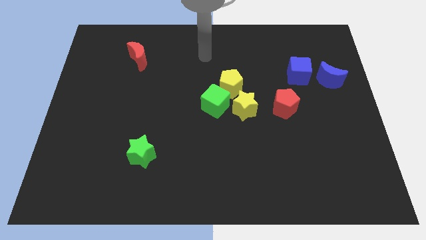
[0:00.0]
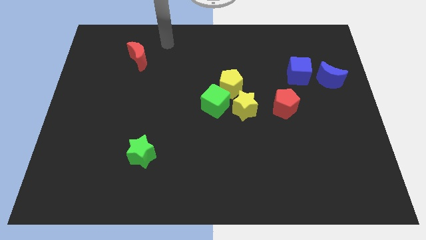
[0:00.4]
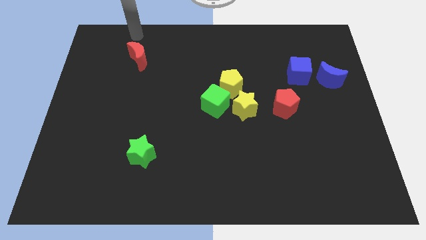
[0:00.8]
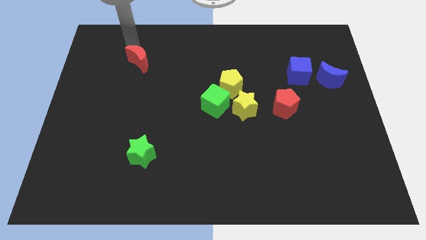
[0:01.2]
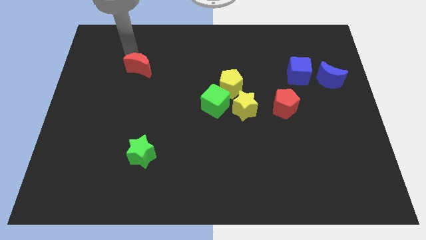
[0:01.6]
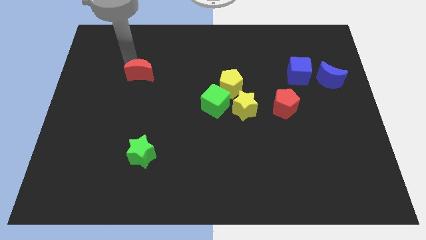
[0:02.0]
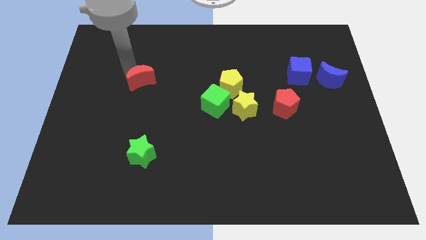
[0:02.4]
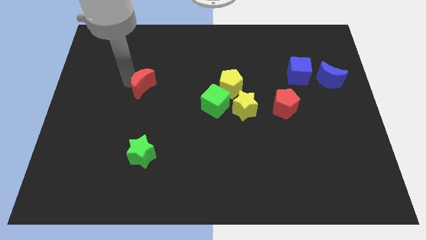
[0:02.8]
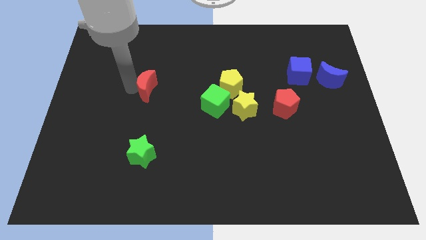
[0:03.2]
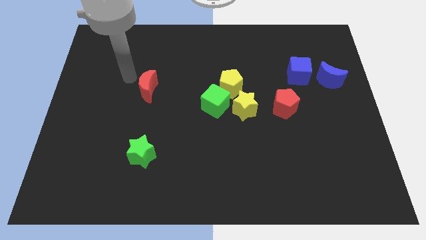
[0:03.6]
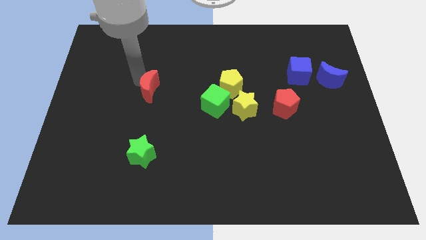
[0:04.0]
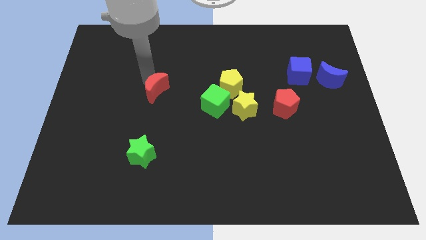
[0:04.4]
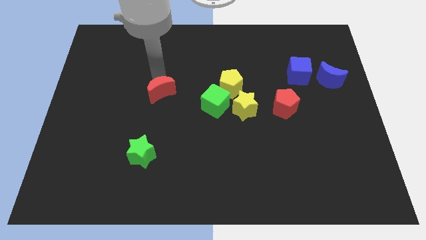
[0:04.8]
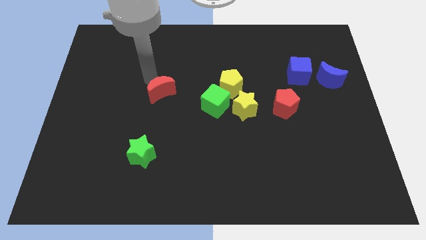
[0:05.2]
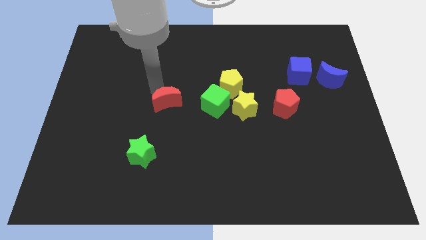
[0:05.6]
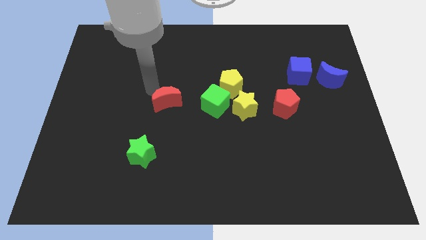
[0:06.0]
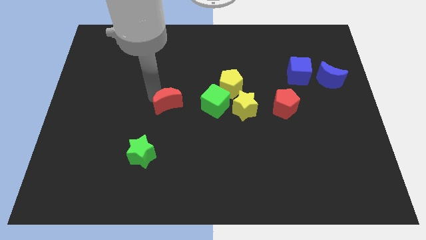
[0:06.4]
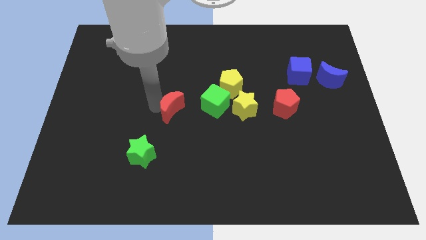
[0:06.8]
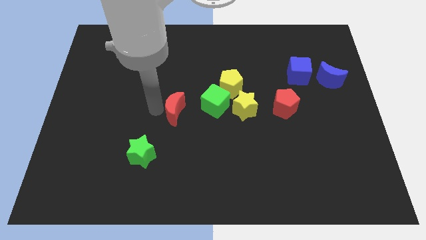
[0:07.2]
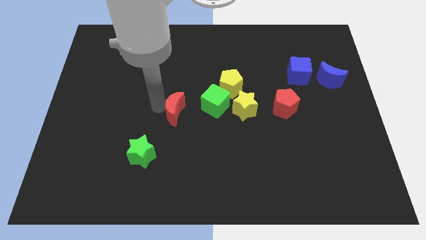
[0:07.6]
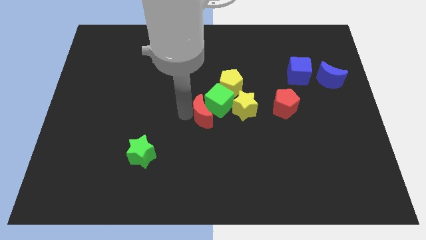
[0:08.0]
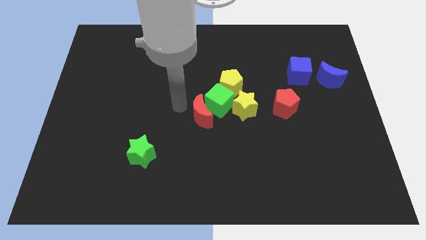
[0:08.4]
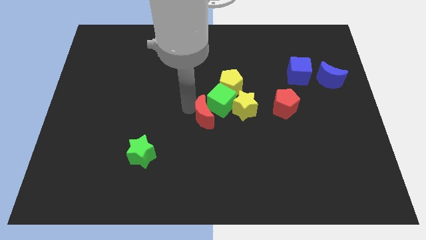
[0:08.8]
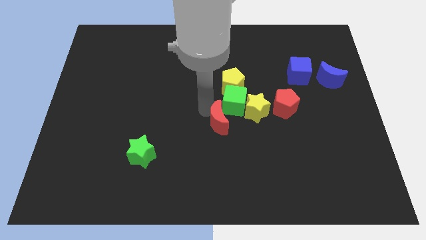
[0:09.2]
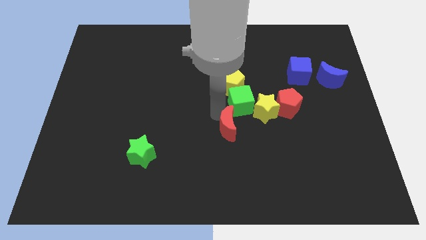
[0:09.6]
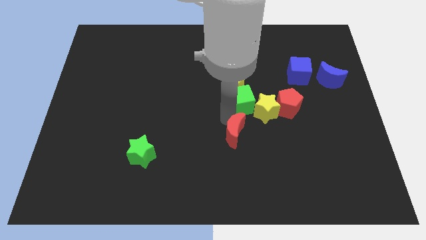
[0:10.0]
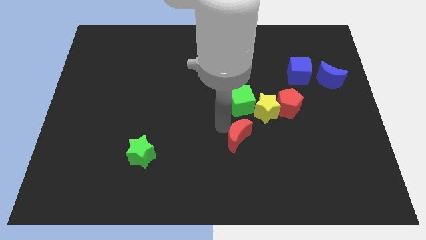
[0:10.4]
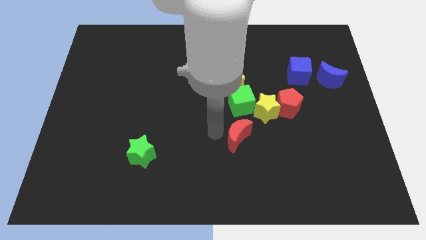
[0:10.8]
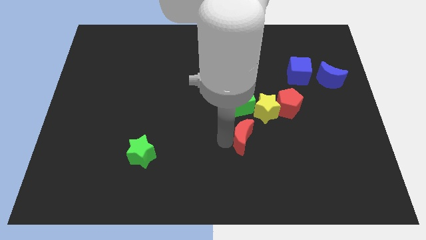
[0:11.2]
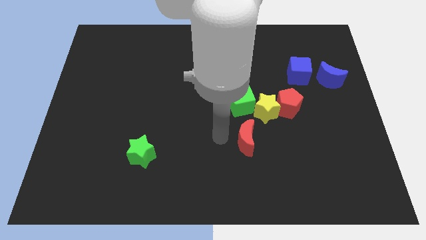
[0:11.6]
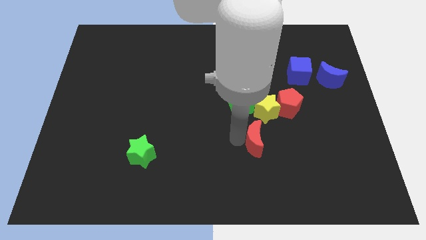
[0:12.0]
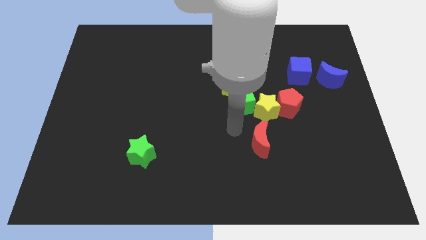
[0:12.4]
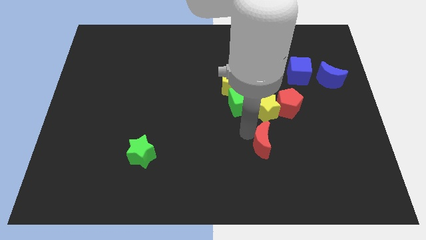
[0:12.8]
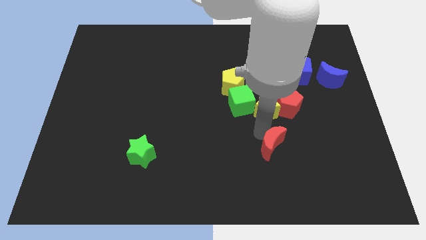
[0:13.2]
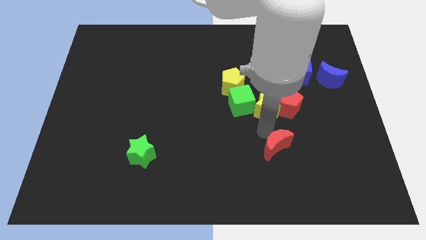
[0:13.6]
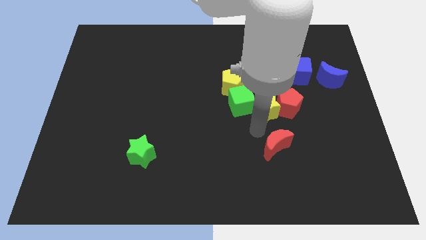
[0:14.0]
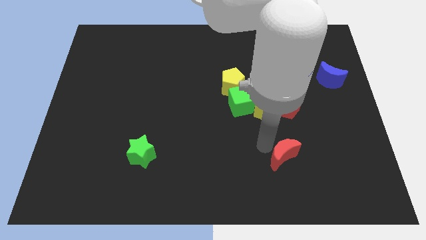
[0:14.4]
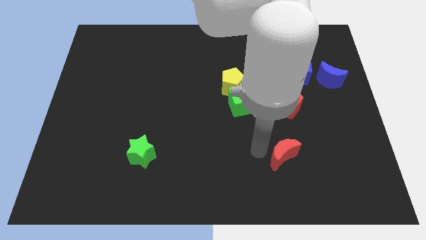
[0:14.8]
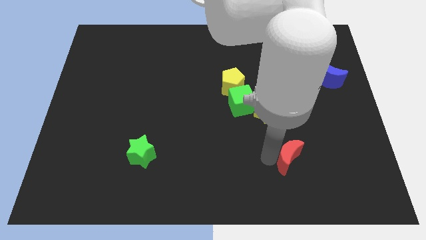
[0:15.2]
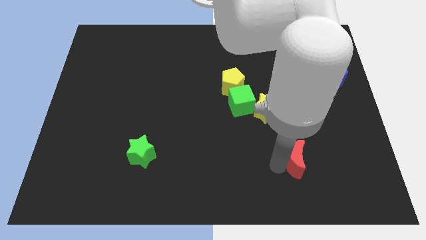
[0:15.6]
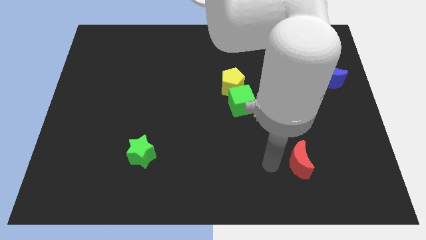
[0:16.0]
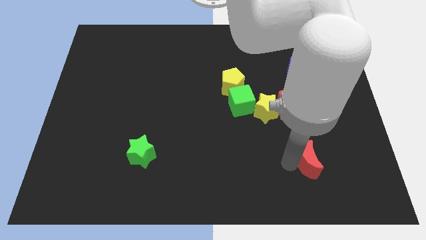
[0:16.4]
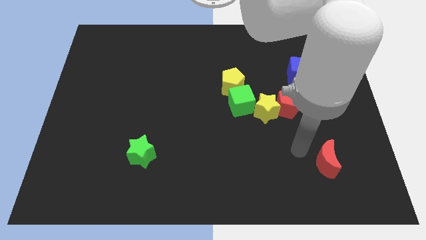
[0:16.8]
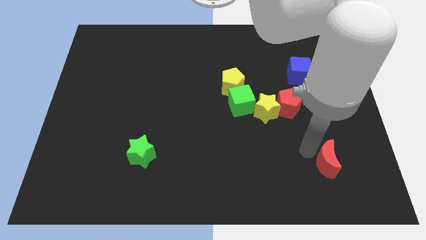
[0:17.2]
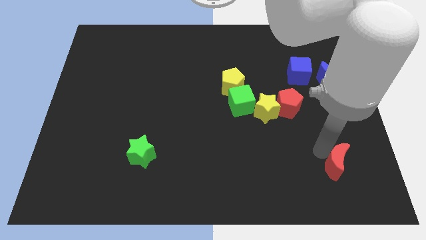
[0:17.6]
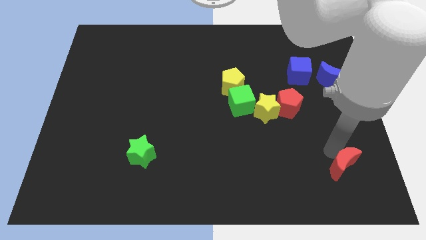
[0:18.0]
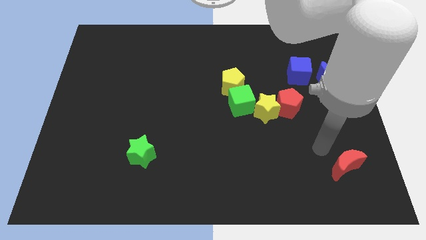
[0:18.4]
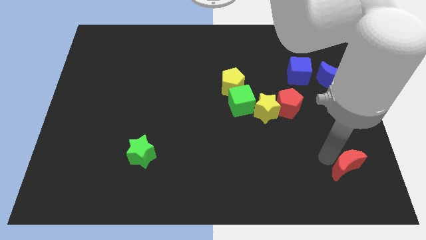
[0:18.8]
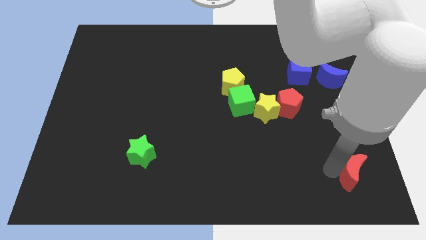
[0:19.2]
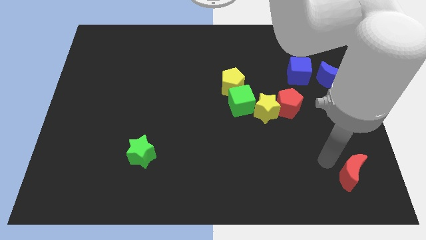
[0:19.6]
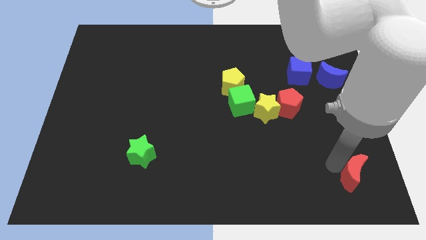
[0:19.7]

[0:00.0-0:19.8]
move the red moon to the bottom right

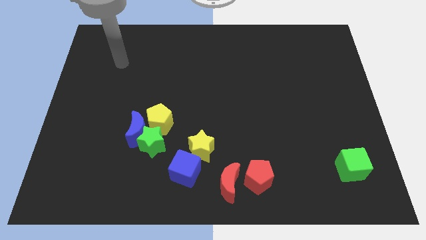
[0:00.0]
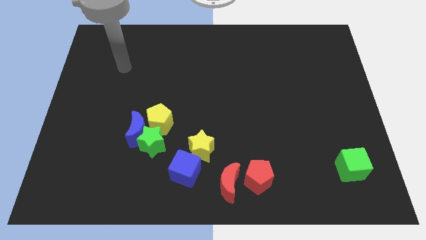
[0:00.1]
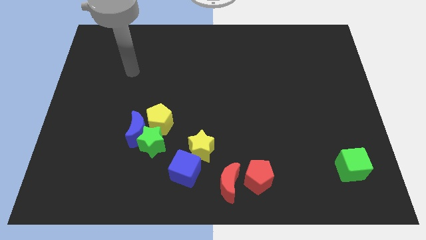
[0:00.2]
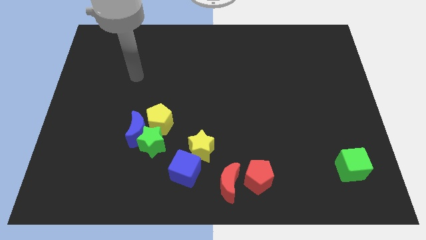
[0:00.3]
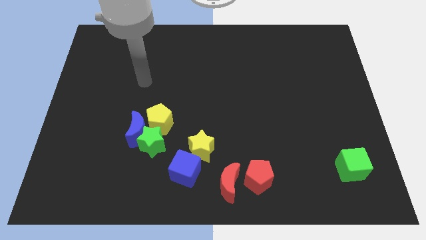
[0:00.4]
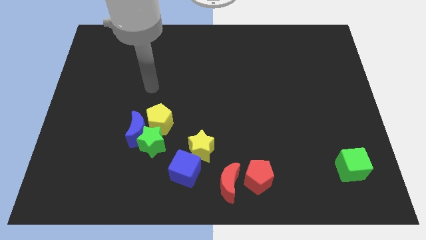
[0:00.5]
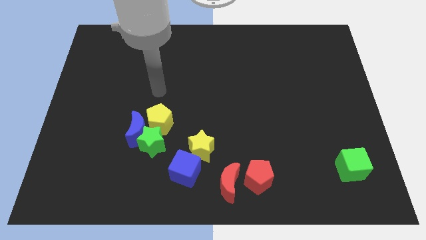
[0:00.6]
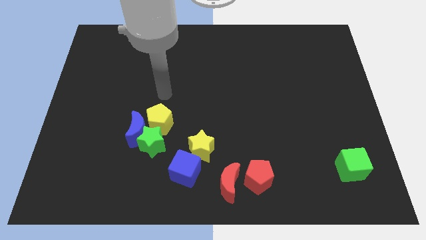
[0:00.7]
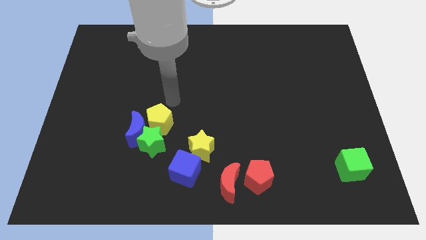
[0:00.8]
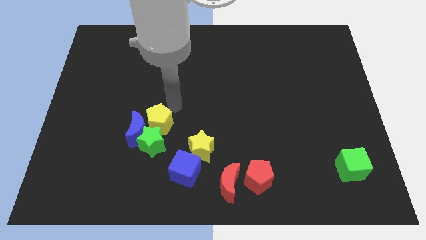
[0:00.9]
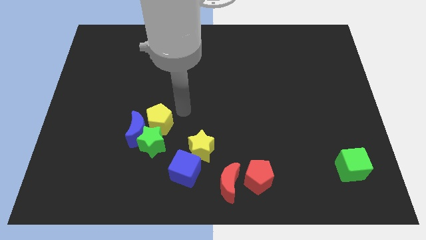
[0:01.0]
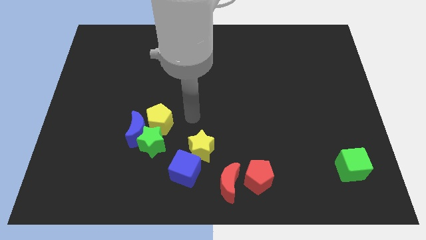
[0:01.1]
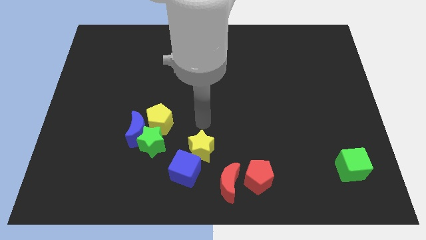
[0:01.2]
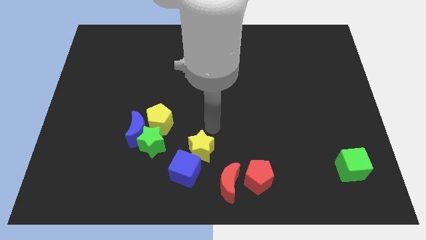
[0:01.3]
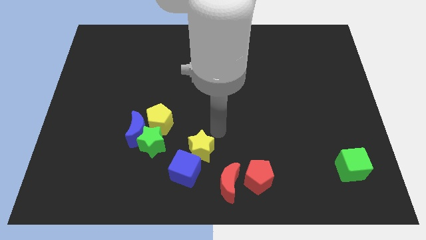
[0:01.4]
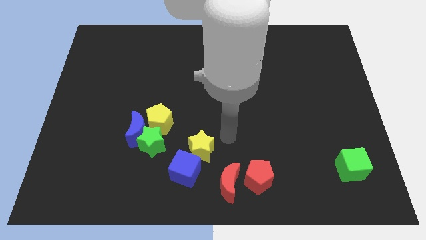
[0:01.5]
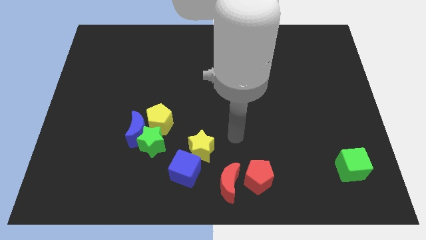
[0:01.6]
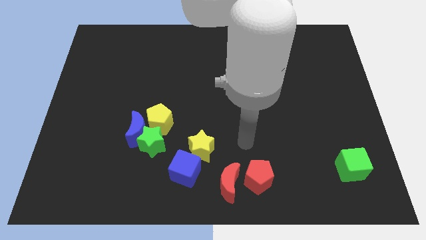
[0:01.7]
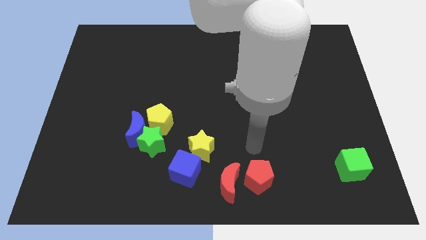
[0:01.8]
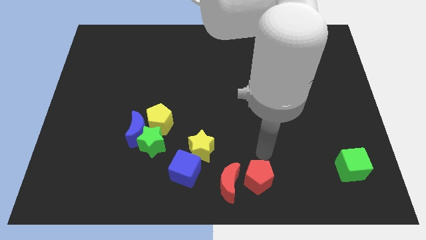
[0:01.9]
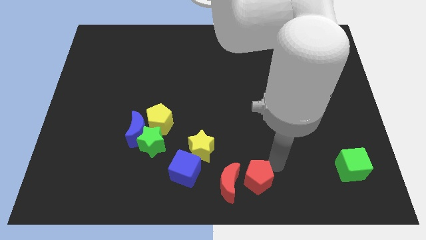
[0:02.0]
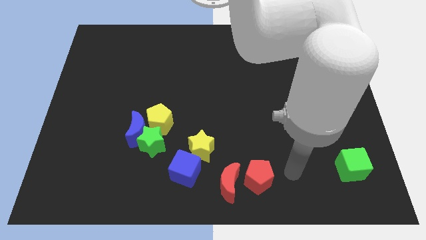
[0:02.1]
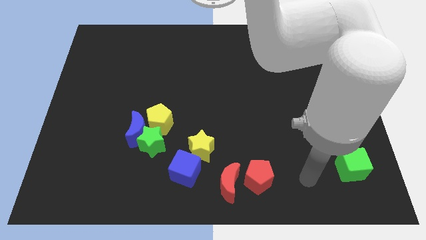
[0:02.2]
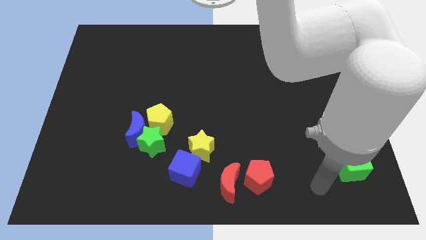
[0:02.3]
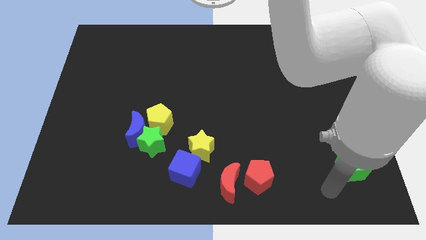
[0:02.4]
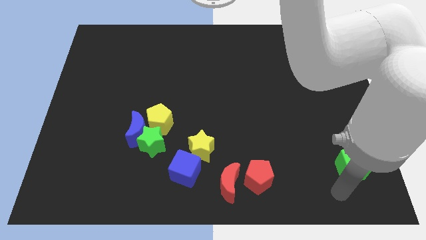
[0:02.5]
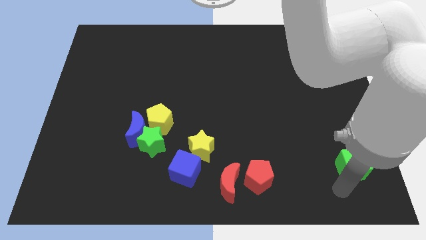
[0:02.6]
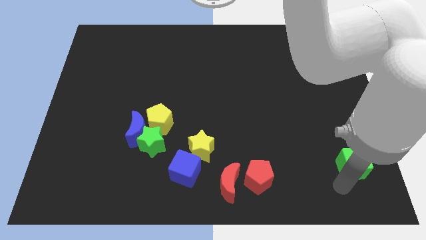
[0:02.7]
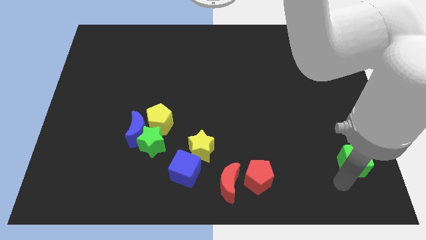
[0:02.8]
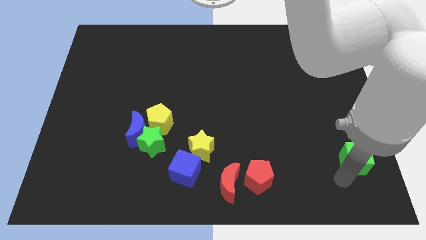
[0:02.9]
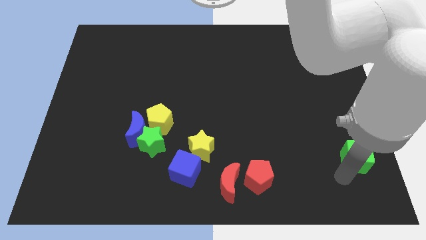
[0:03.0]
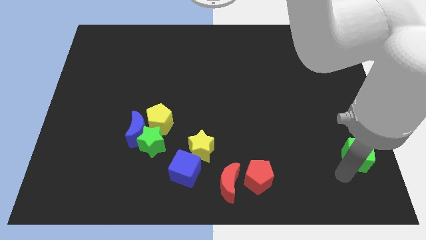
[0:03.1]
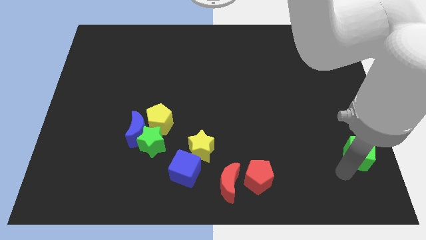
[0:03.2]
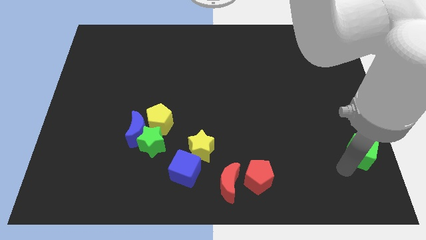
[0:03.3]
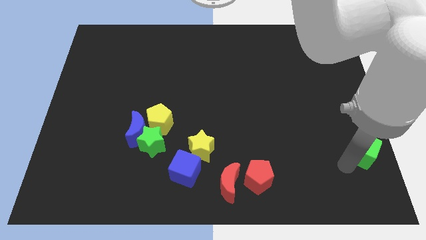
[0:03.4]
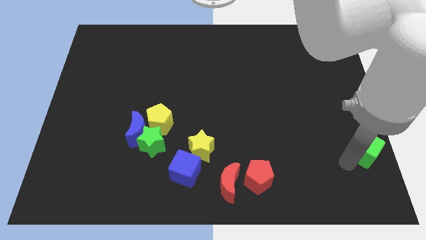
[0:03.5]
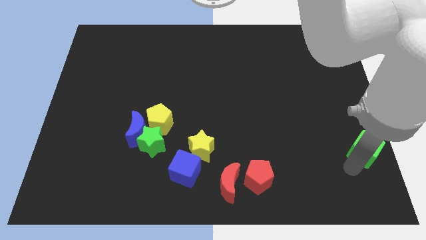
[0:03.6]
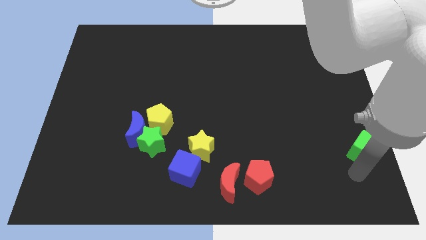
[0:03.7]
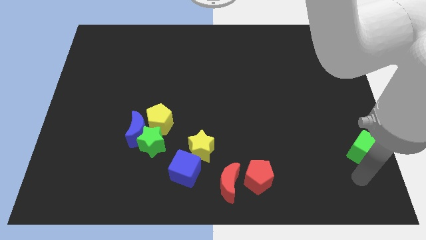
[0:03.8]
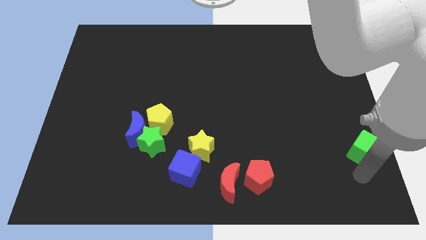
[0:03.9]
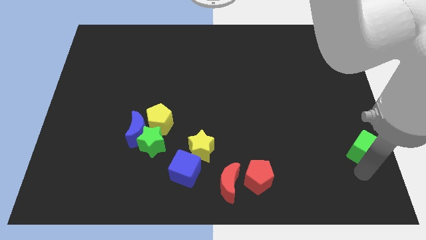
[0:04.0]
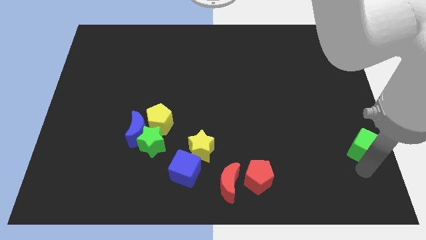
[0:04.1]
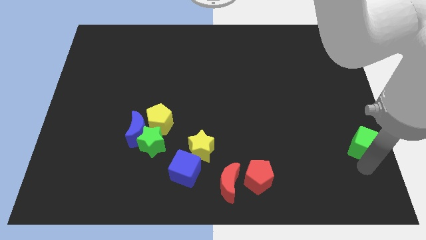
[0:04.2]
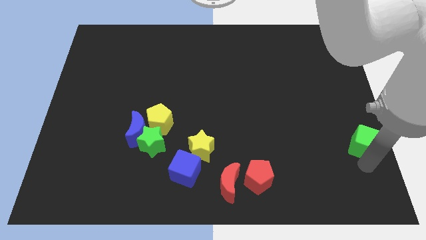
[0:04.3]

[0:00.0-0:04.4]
push the green cube to the right side of the board
